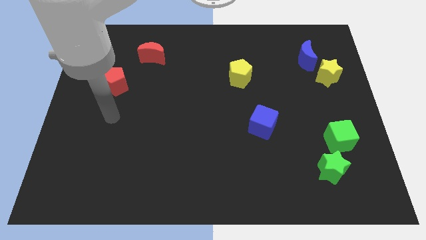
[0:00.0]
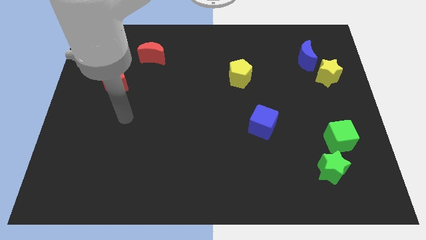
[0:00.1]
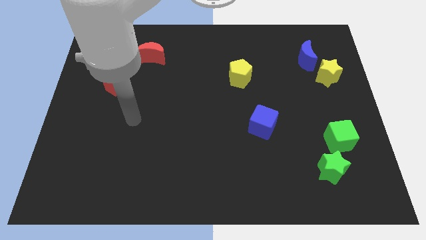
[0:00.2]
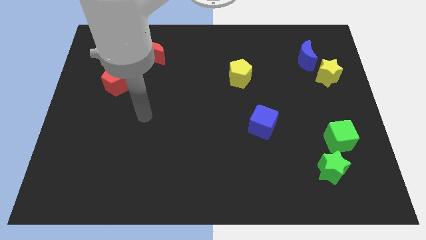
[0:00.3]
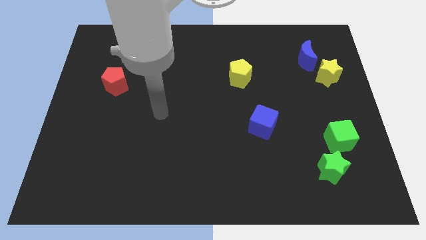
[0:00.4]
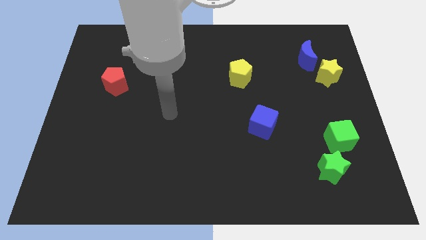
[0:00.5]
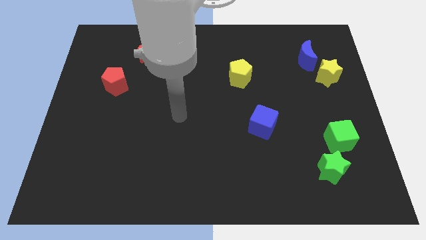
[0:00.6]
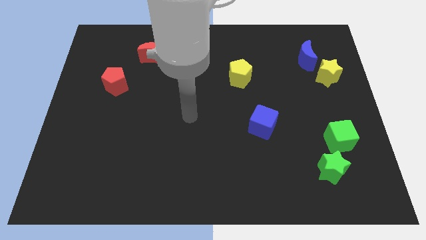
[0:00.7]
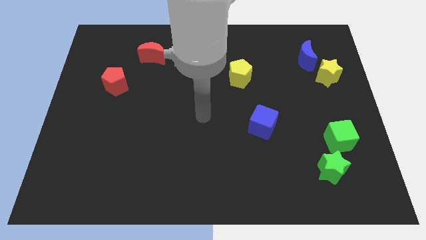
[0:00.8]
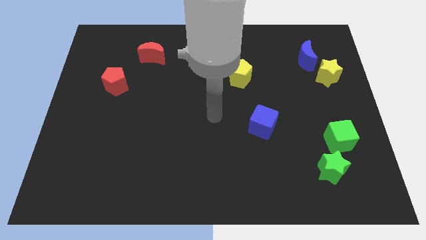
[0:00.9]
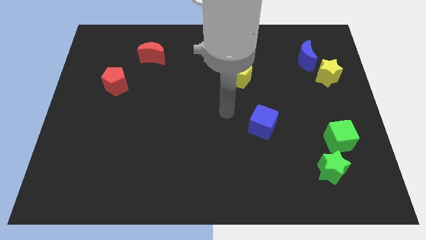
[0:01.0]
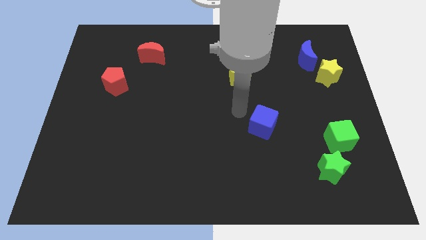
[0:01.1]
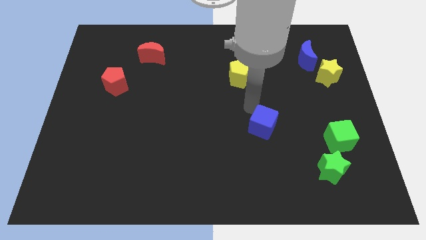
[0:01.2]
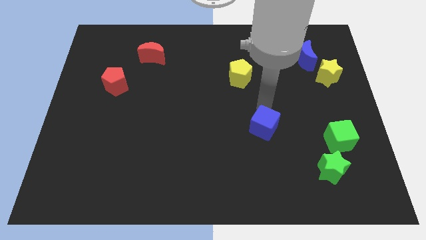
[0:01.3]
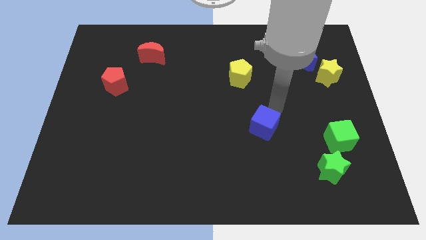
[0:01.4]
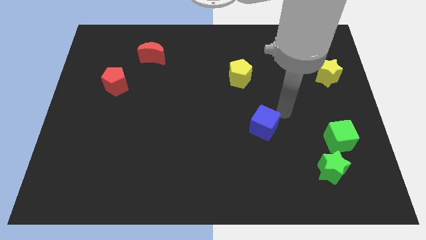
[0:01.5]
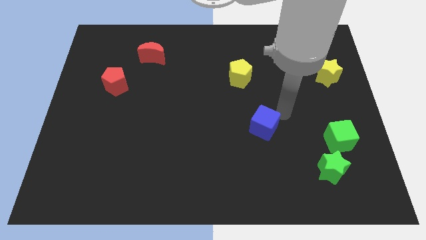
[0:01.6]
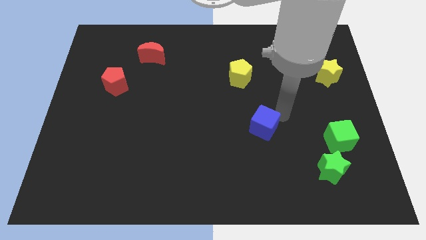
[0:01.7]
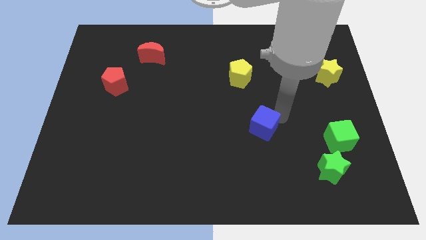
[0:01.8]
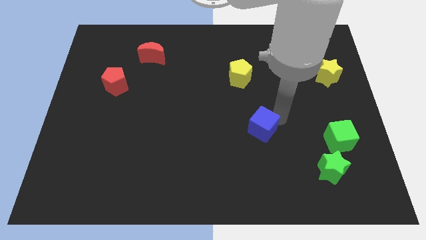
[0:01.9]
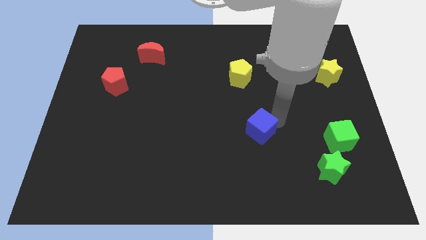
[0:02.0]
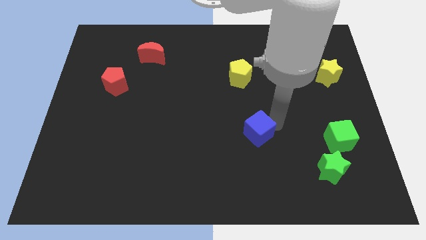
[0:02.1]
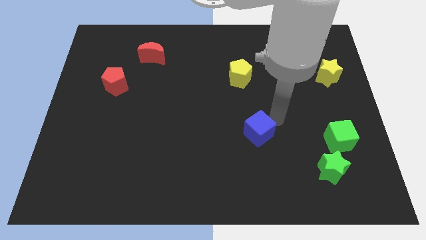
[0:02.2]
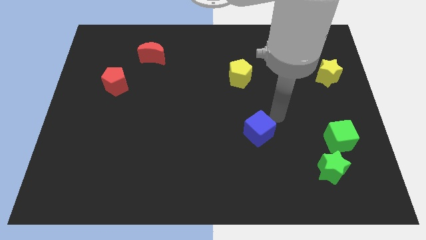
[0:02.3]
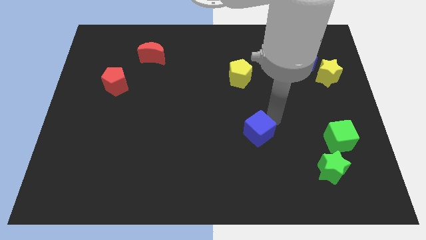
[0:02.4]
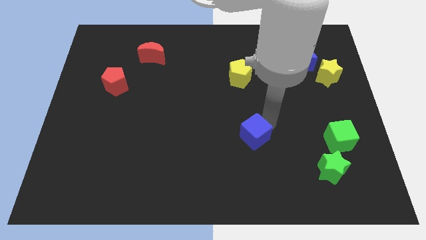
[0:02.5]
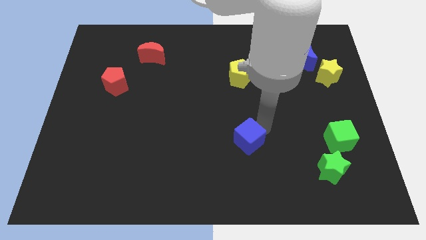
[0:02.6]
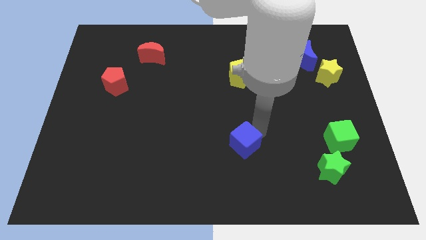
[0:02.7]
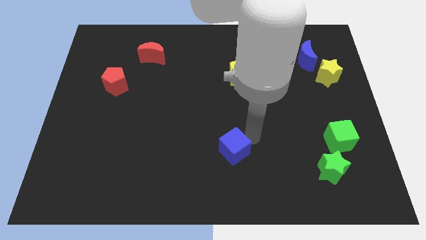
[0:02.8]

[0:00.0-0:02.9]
slide the blue cube slightly downwards and then left

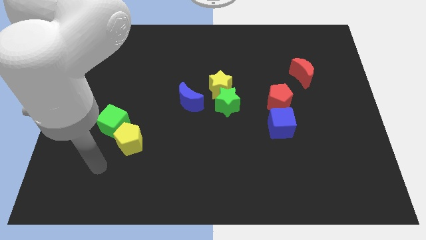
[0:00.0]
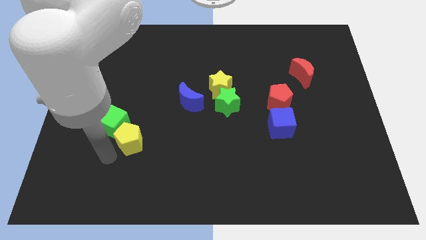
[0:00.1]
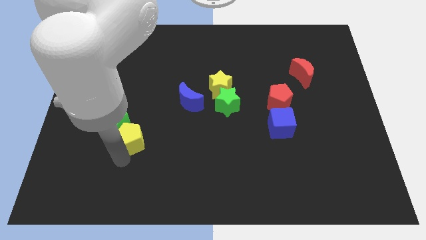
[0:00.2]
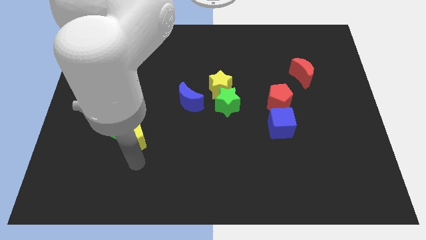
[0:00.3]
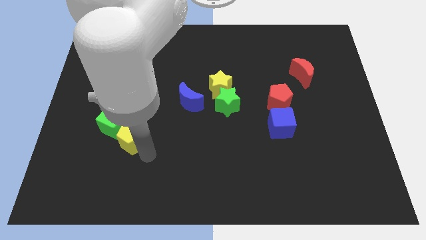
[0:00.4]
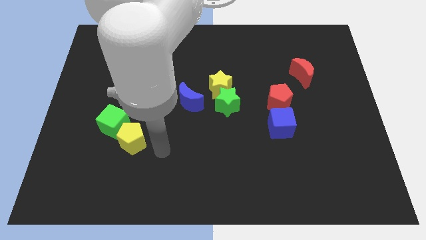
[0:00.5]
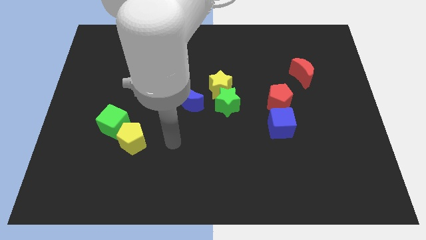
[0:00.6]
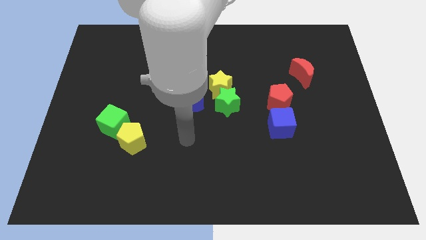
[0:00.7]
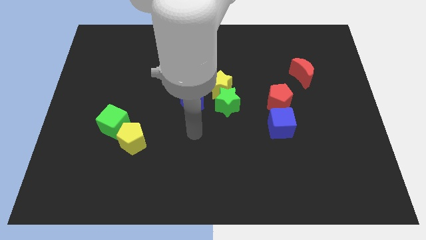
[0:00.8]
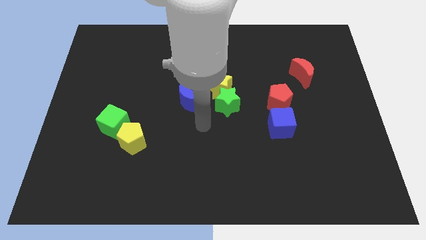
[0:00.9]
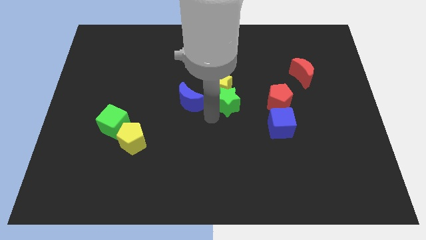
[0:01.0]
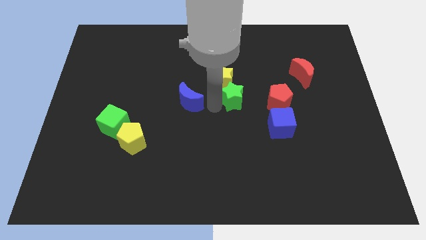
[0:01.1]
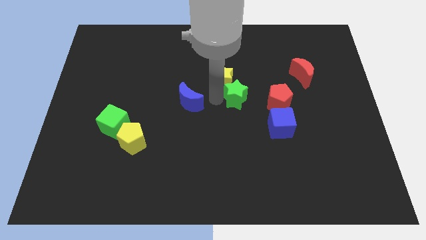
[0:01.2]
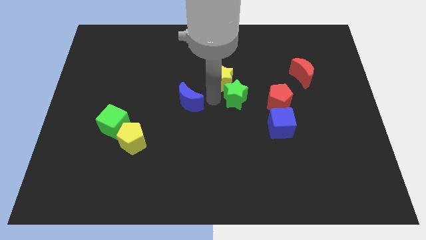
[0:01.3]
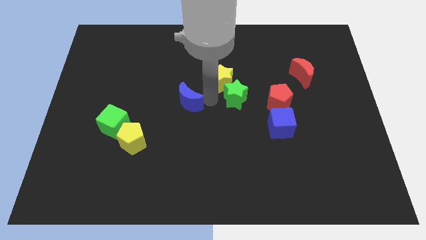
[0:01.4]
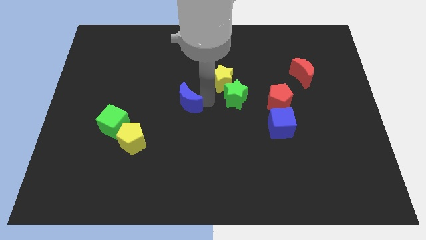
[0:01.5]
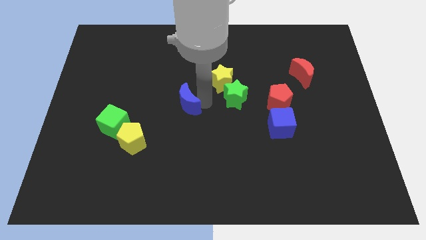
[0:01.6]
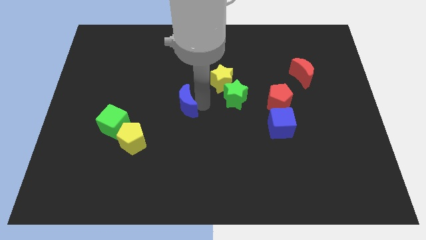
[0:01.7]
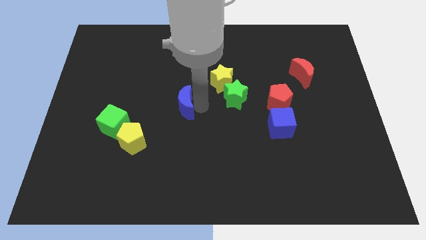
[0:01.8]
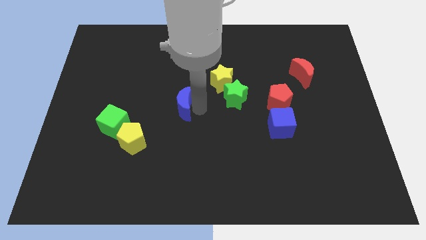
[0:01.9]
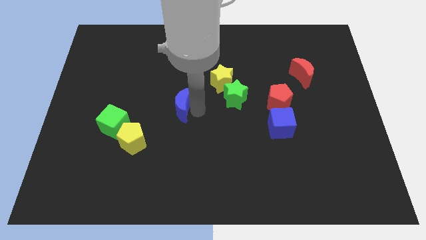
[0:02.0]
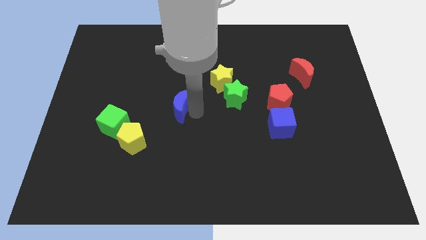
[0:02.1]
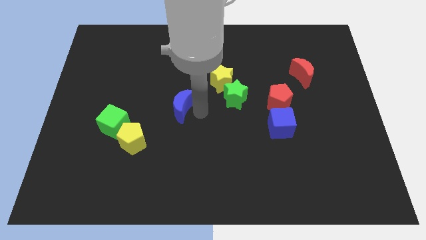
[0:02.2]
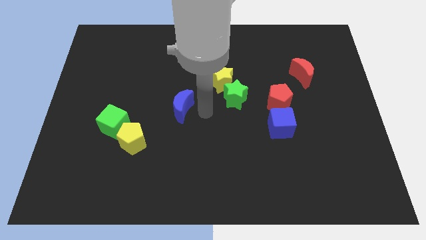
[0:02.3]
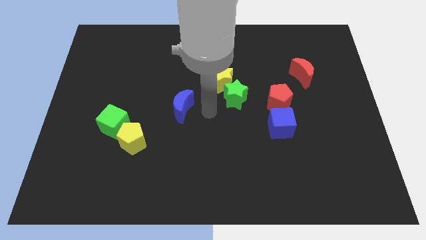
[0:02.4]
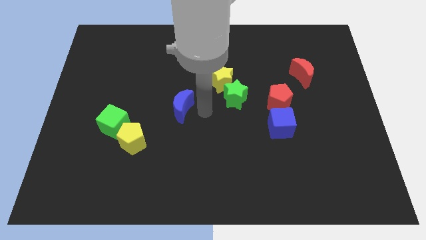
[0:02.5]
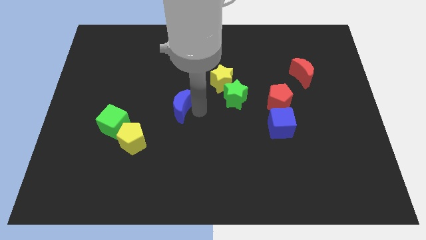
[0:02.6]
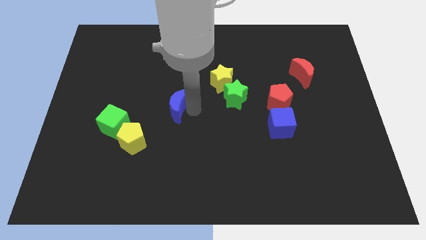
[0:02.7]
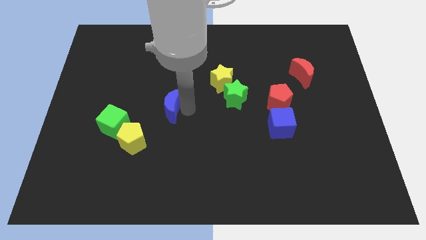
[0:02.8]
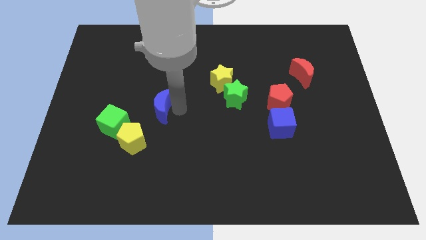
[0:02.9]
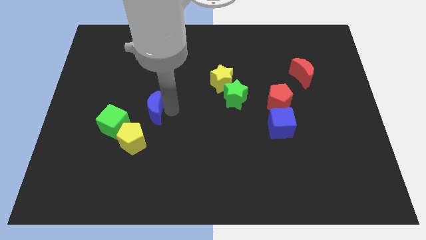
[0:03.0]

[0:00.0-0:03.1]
slightly move the blue moon left

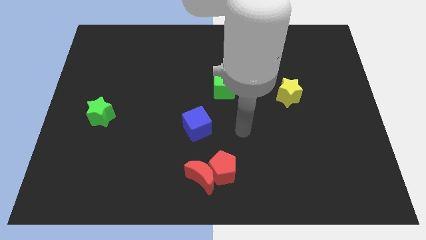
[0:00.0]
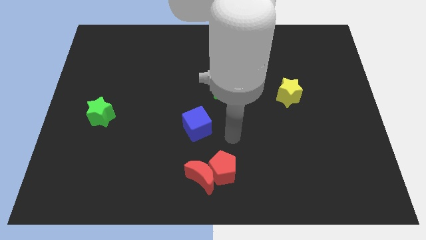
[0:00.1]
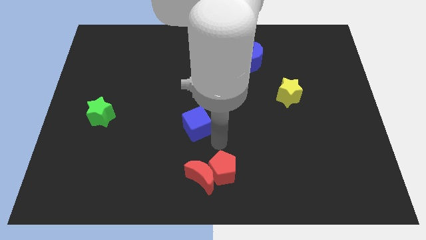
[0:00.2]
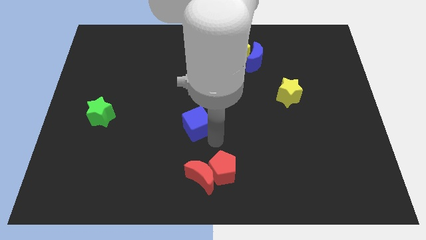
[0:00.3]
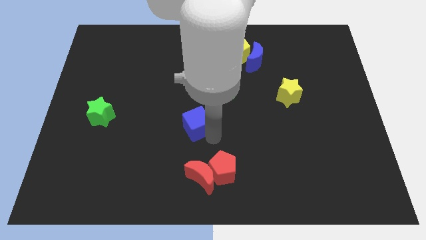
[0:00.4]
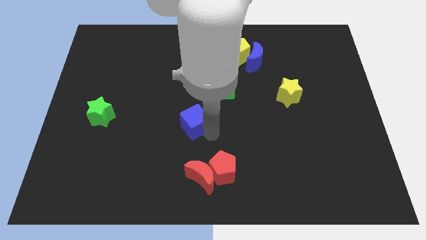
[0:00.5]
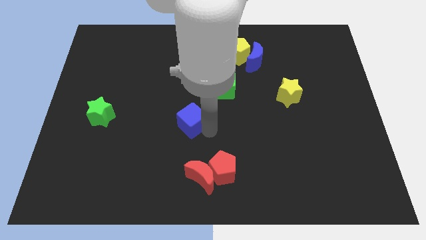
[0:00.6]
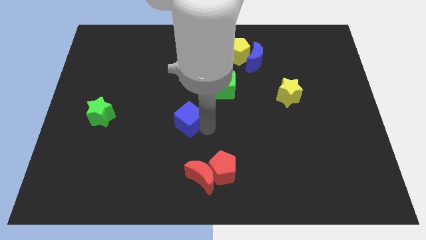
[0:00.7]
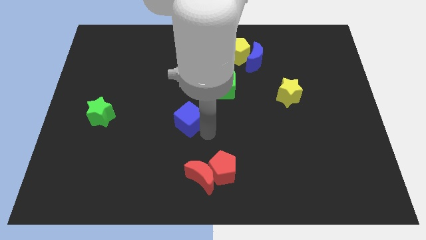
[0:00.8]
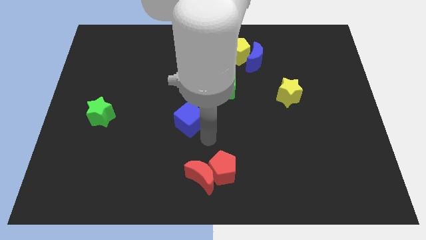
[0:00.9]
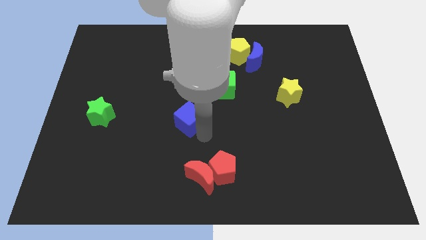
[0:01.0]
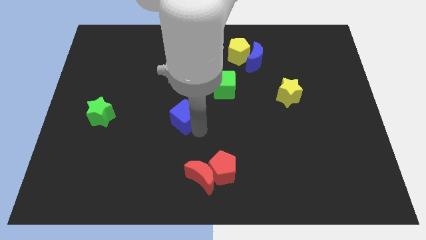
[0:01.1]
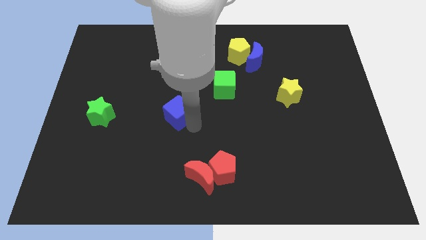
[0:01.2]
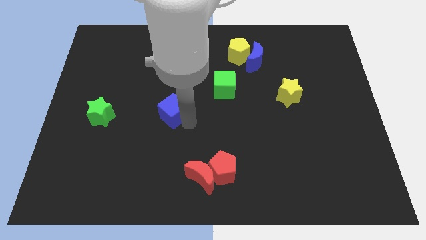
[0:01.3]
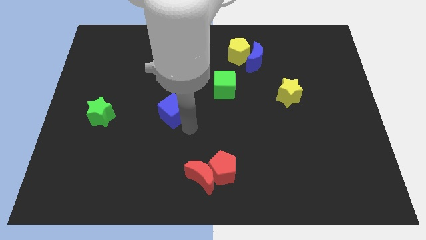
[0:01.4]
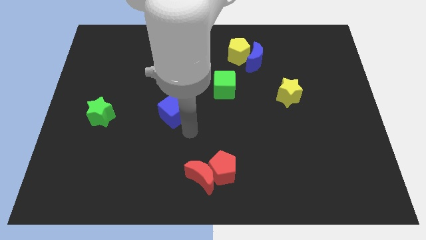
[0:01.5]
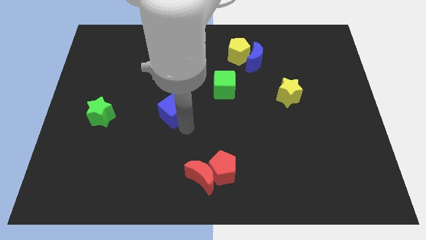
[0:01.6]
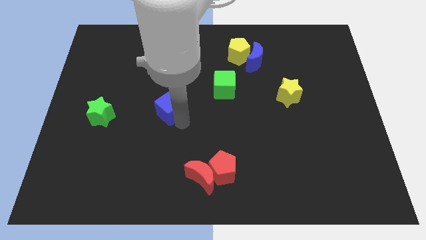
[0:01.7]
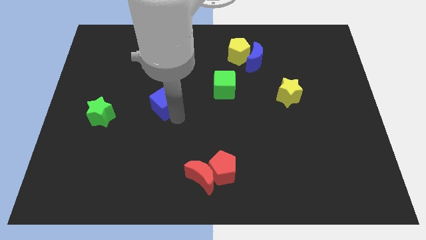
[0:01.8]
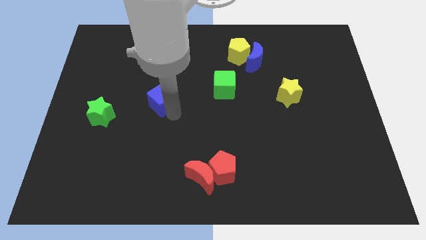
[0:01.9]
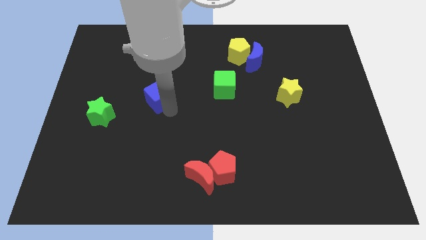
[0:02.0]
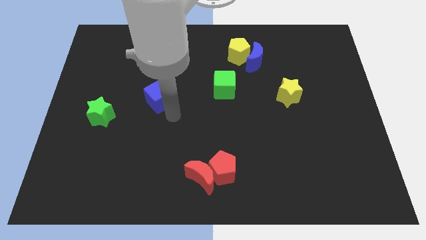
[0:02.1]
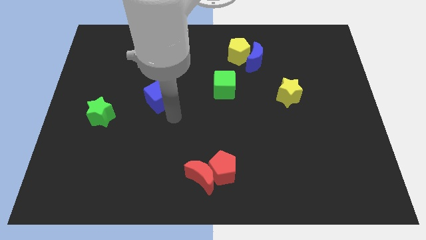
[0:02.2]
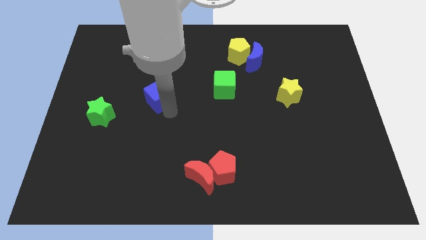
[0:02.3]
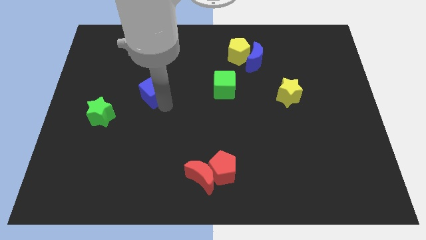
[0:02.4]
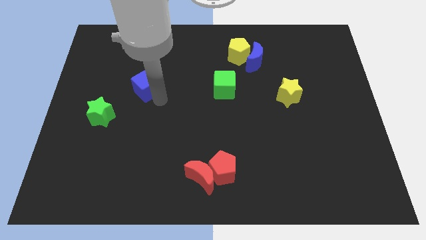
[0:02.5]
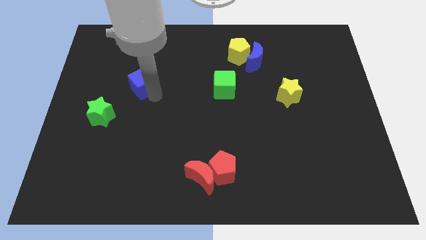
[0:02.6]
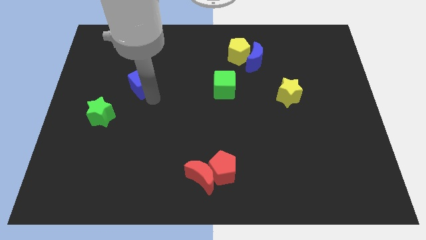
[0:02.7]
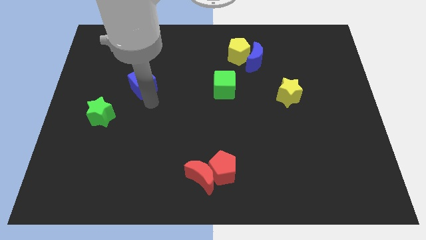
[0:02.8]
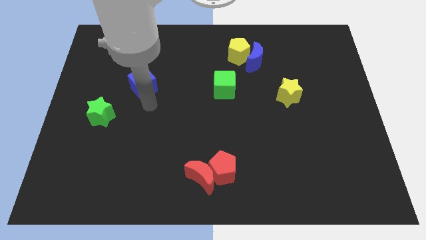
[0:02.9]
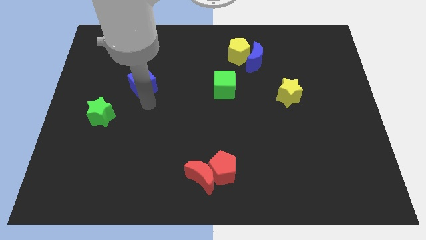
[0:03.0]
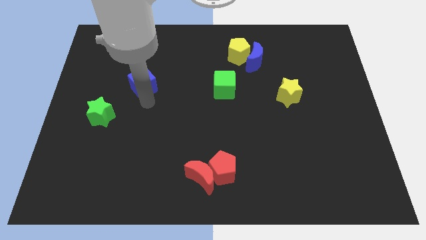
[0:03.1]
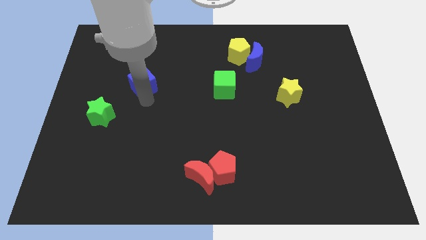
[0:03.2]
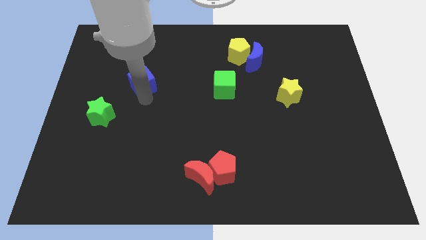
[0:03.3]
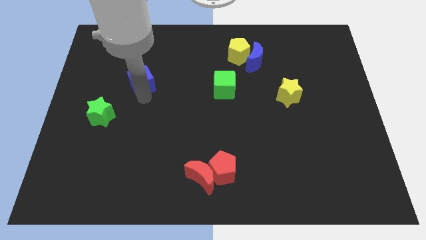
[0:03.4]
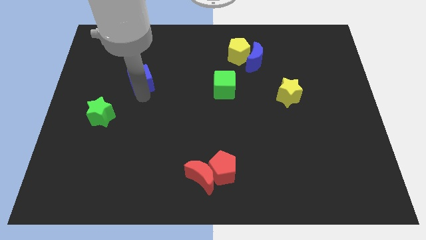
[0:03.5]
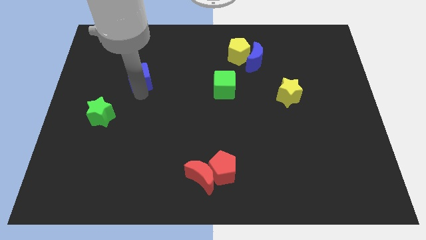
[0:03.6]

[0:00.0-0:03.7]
push the blue cube diagonally up and to the left
